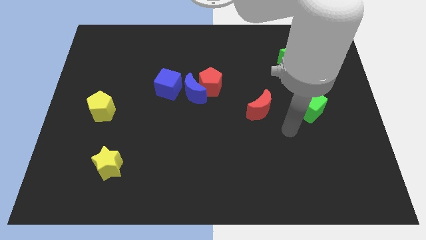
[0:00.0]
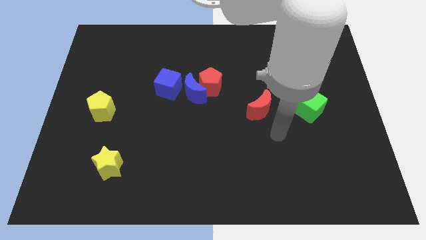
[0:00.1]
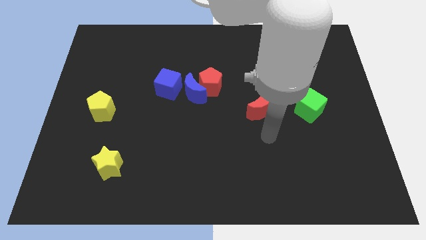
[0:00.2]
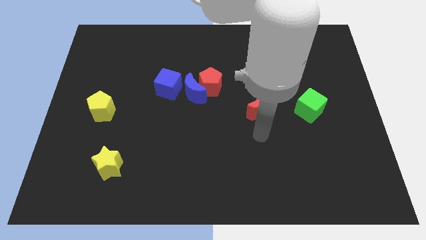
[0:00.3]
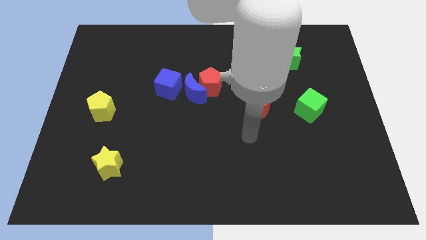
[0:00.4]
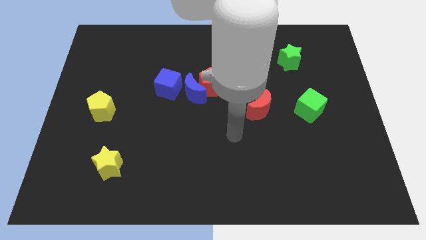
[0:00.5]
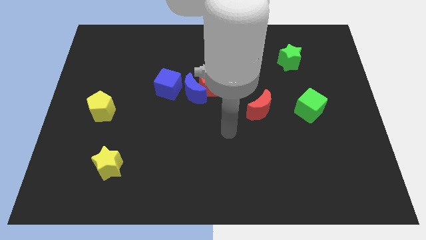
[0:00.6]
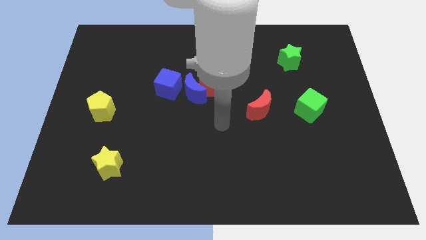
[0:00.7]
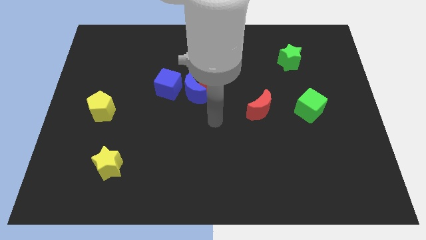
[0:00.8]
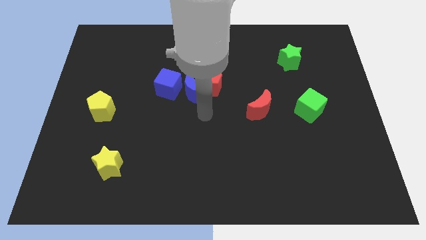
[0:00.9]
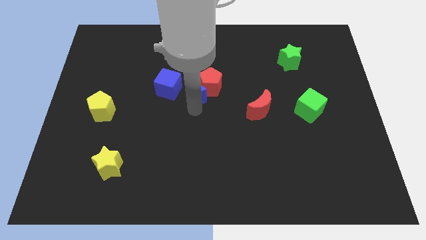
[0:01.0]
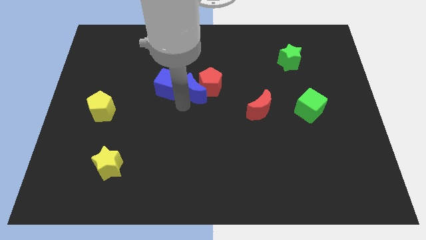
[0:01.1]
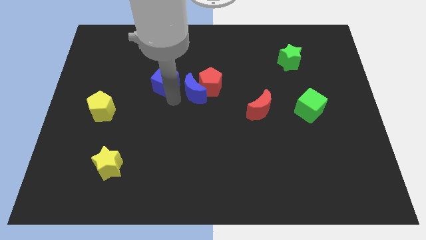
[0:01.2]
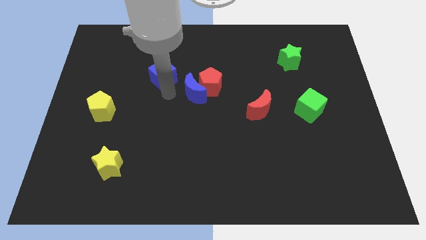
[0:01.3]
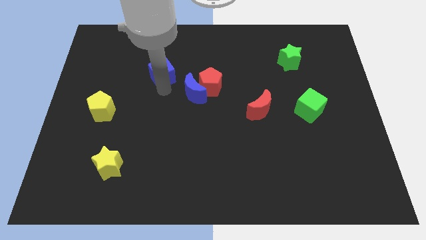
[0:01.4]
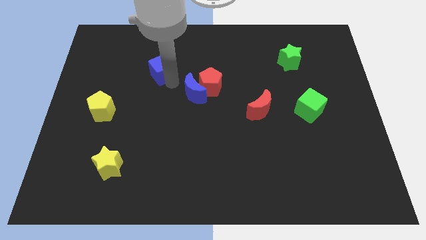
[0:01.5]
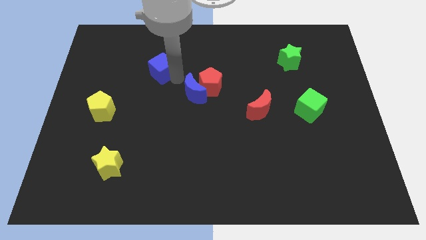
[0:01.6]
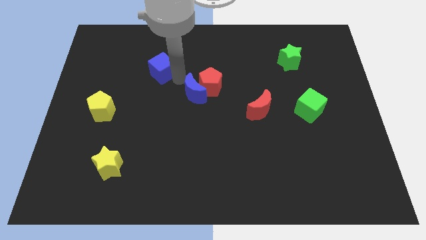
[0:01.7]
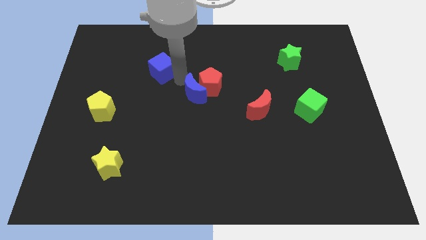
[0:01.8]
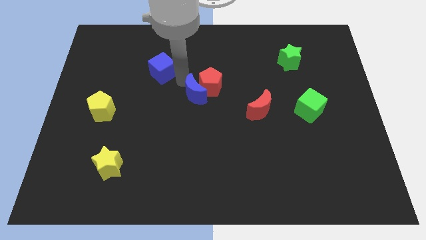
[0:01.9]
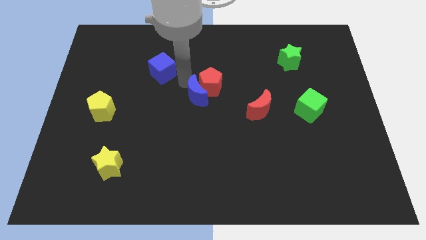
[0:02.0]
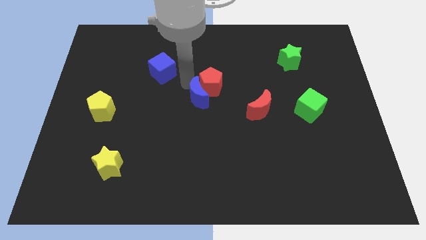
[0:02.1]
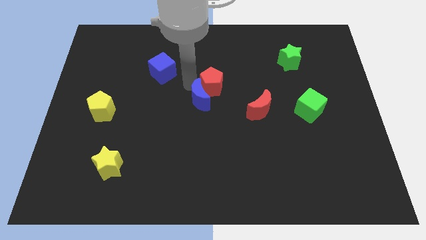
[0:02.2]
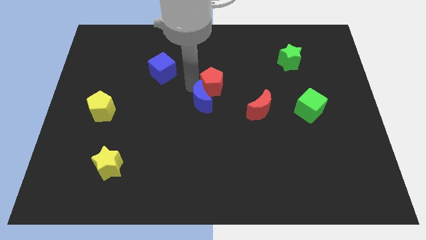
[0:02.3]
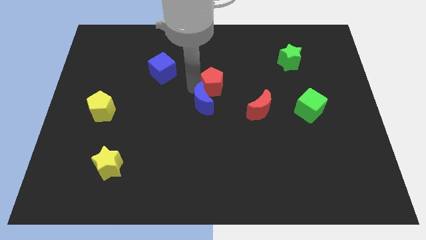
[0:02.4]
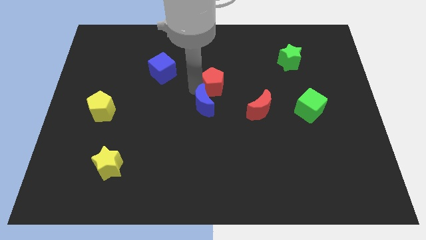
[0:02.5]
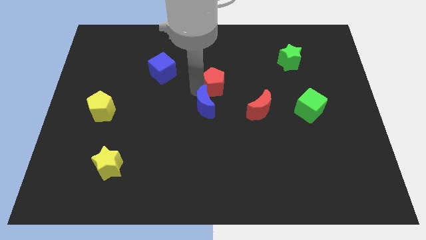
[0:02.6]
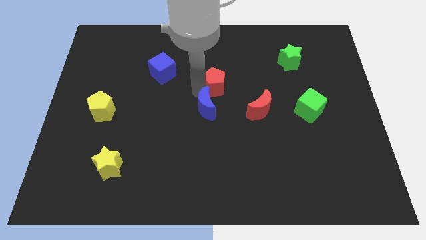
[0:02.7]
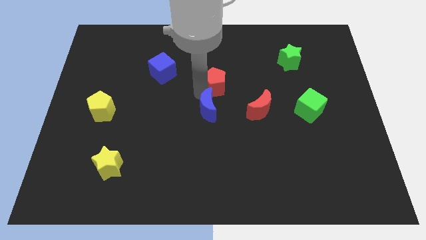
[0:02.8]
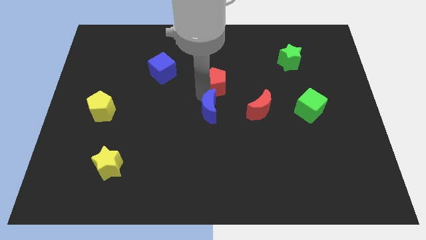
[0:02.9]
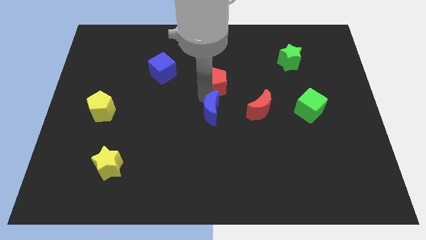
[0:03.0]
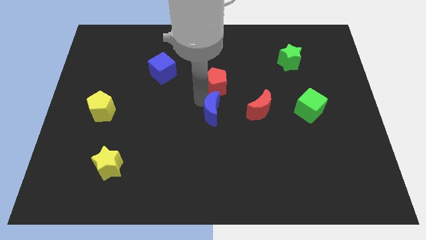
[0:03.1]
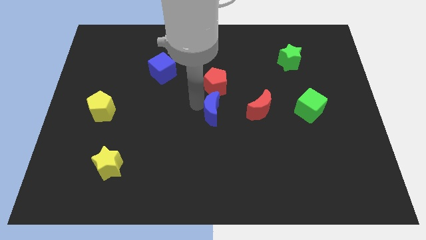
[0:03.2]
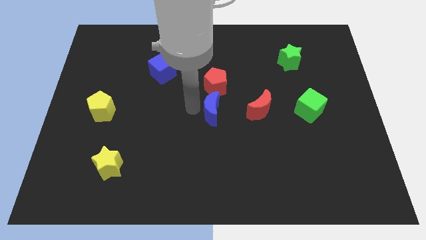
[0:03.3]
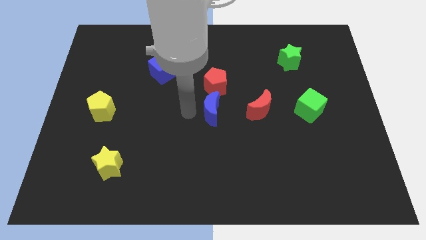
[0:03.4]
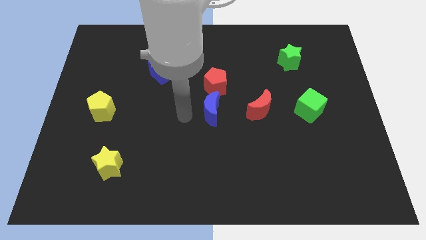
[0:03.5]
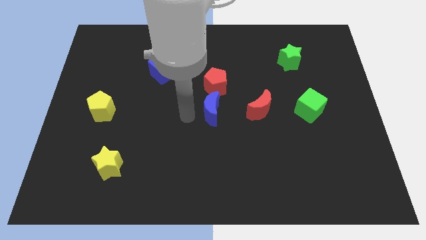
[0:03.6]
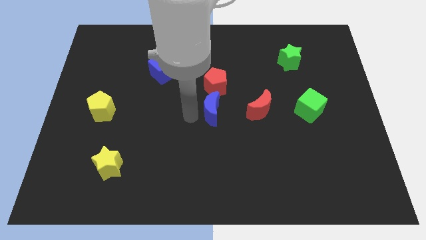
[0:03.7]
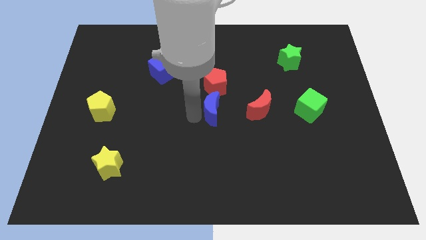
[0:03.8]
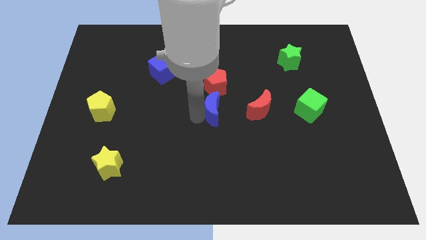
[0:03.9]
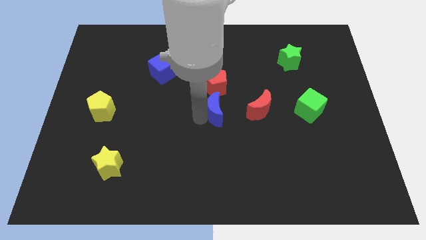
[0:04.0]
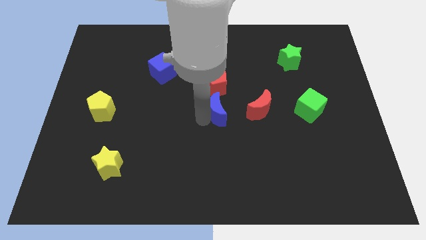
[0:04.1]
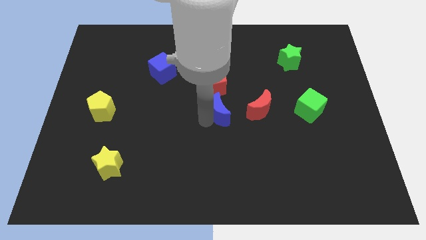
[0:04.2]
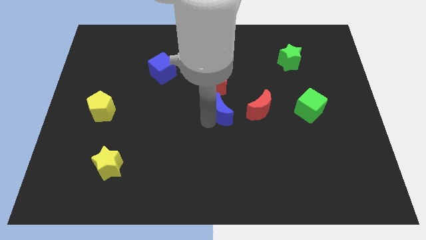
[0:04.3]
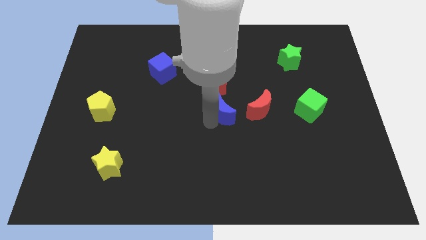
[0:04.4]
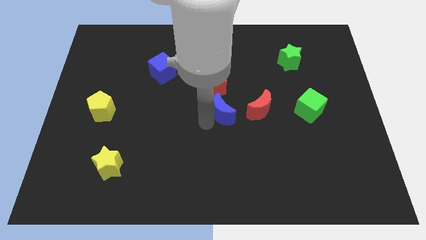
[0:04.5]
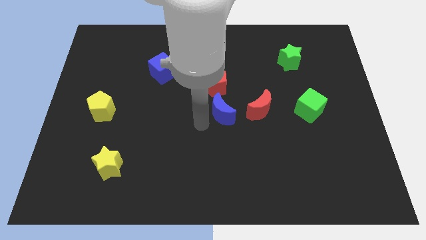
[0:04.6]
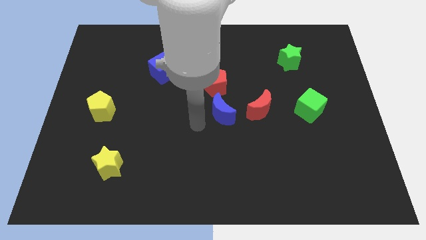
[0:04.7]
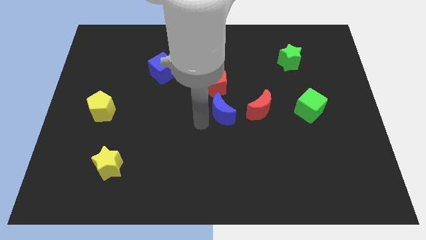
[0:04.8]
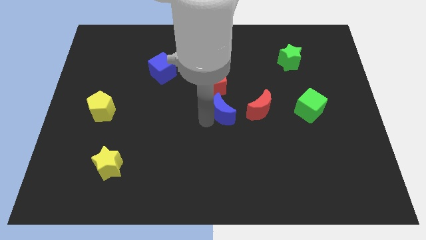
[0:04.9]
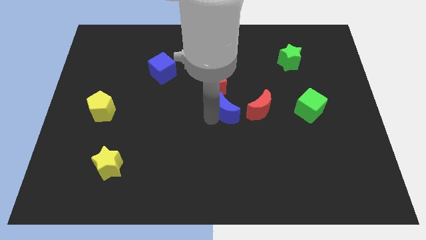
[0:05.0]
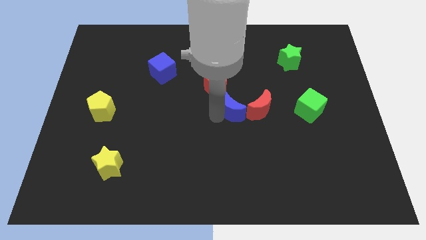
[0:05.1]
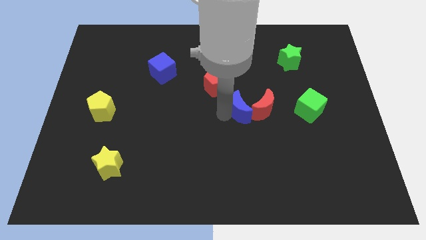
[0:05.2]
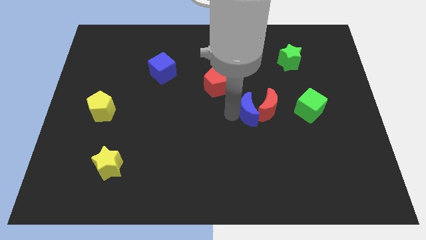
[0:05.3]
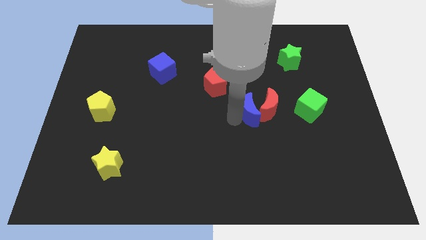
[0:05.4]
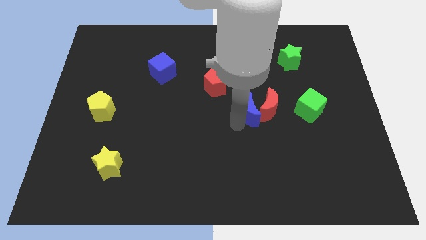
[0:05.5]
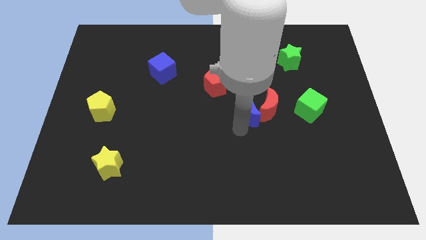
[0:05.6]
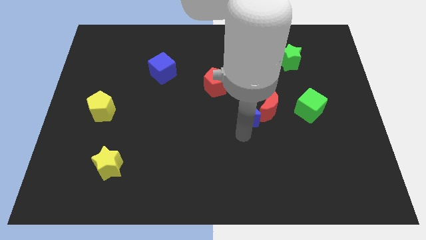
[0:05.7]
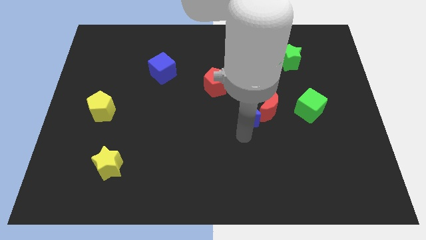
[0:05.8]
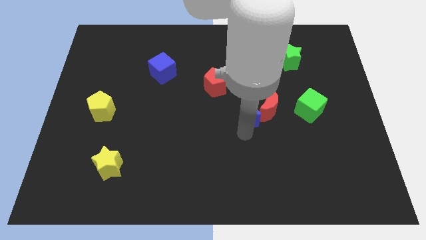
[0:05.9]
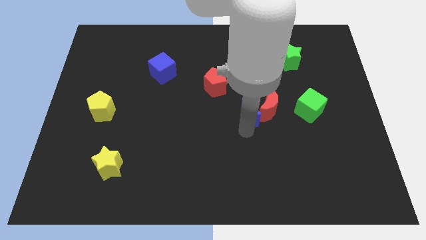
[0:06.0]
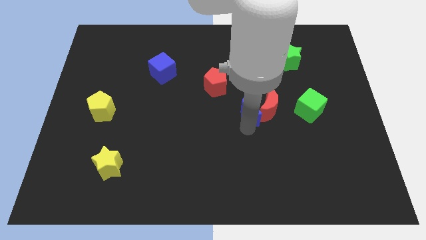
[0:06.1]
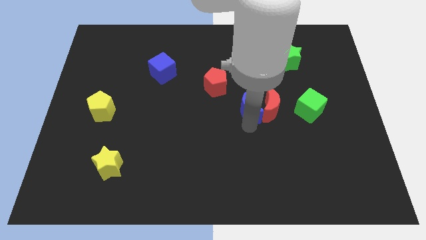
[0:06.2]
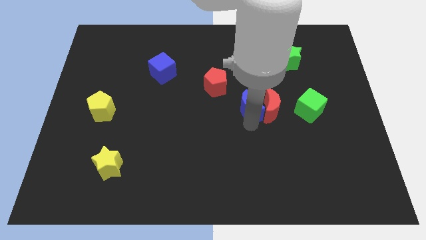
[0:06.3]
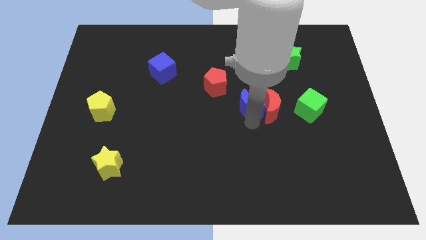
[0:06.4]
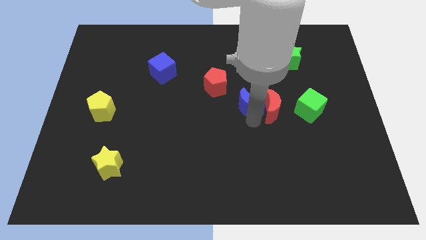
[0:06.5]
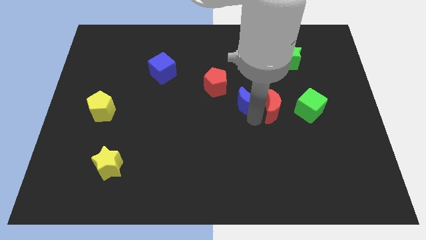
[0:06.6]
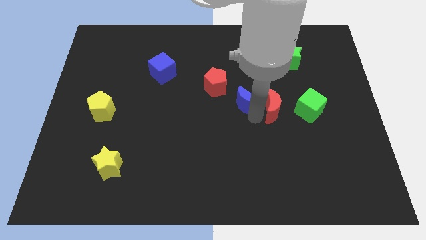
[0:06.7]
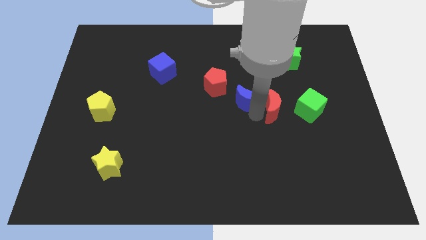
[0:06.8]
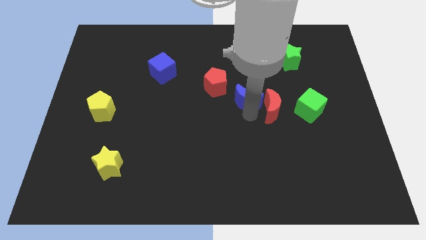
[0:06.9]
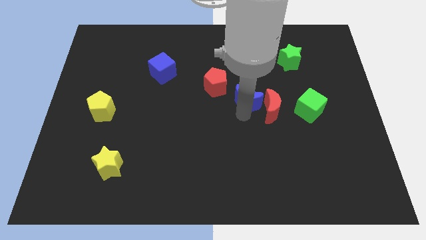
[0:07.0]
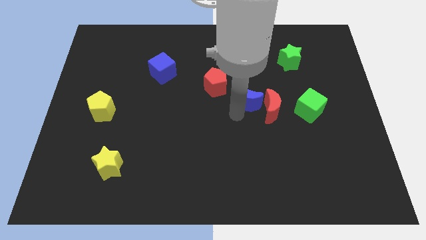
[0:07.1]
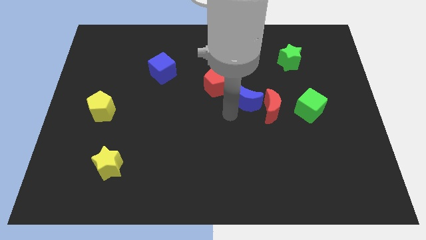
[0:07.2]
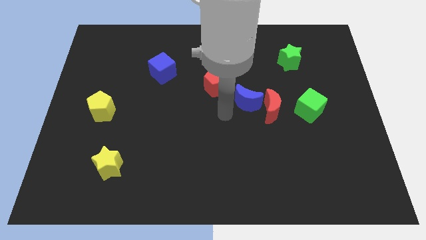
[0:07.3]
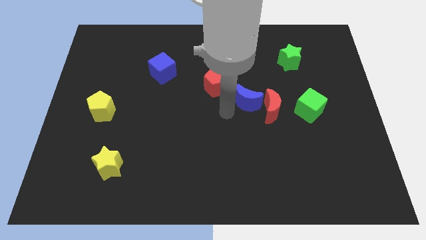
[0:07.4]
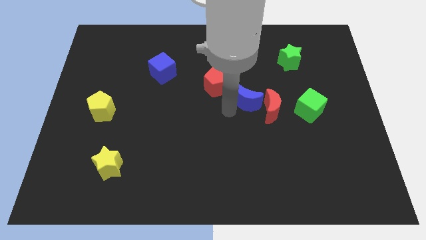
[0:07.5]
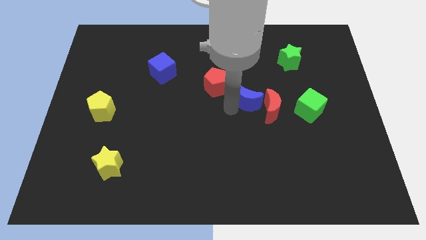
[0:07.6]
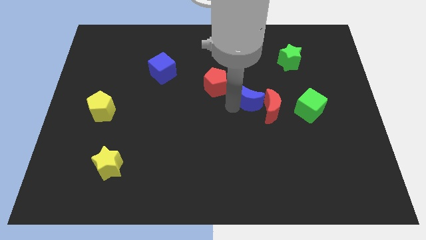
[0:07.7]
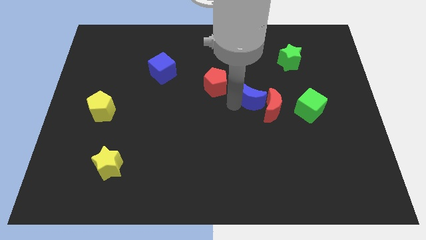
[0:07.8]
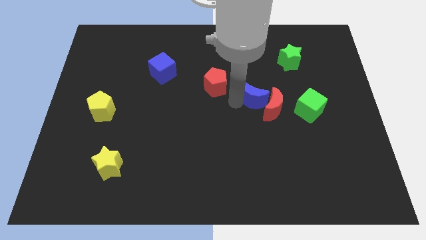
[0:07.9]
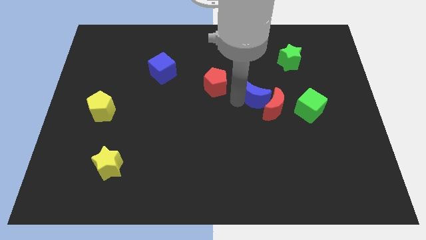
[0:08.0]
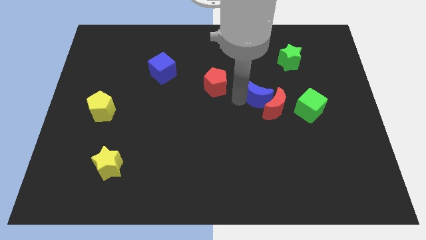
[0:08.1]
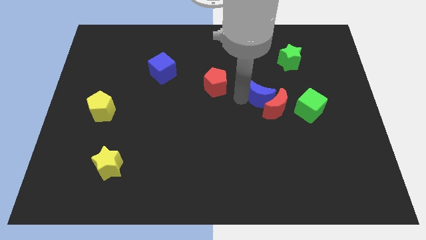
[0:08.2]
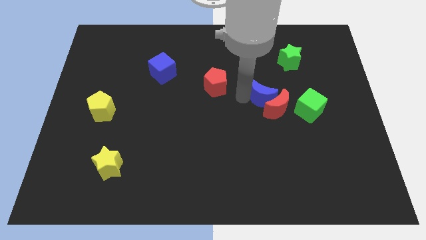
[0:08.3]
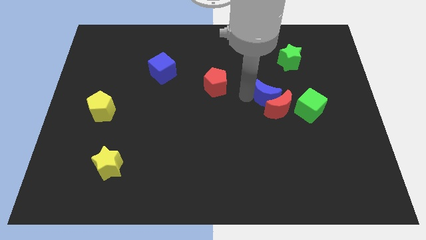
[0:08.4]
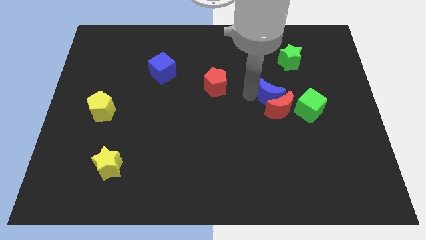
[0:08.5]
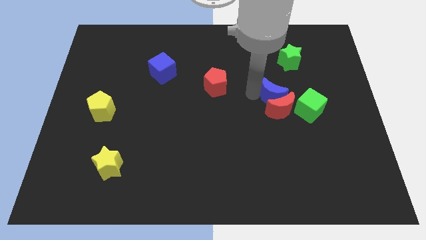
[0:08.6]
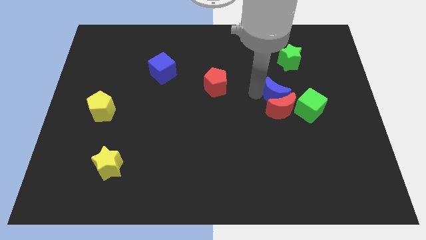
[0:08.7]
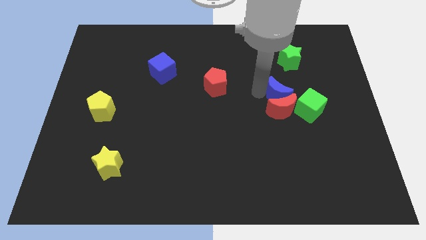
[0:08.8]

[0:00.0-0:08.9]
move the blue moon to the bottom of the green star
